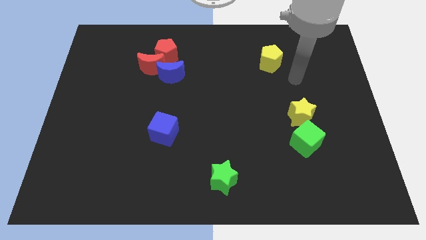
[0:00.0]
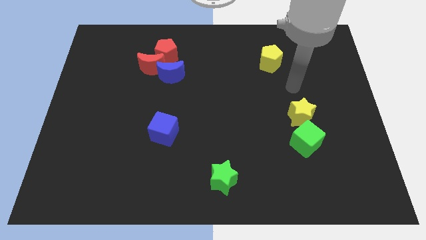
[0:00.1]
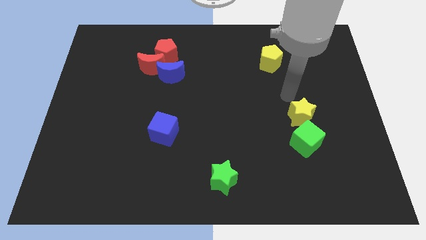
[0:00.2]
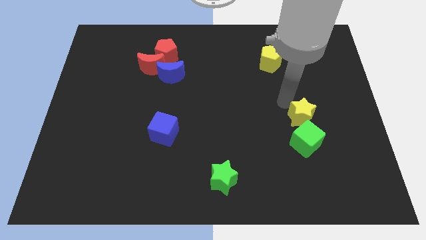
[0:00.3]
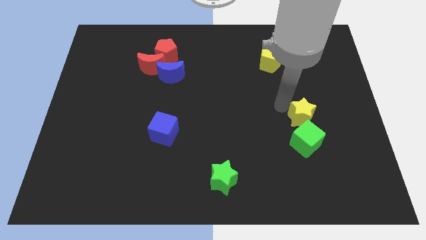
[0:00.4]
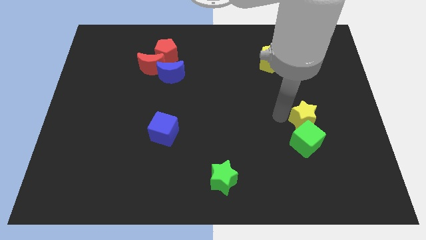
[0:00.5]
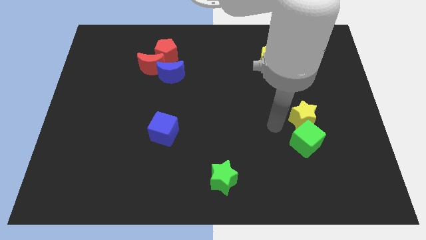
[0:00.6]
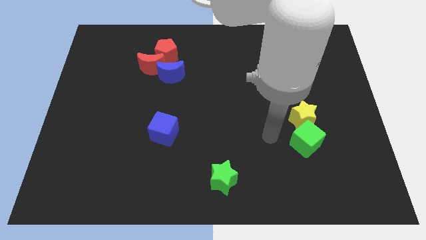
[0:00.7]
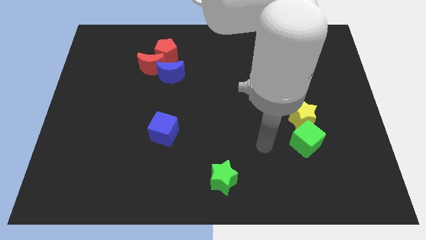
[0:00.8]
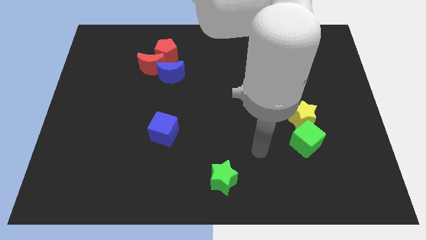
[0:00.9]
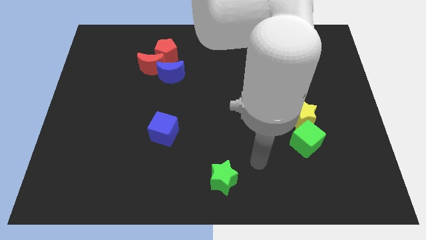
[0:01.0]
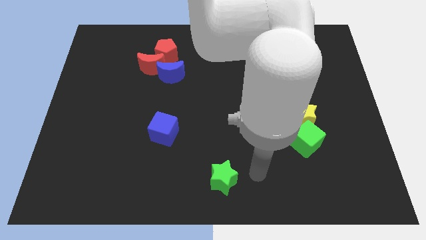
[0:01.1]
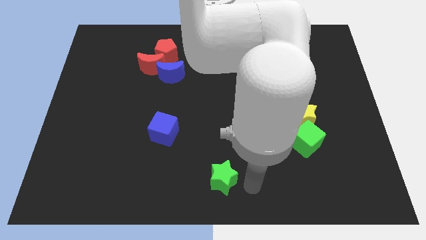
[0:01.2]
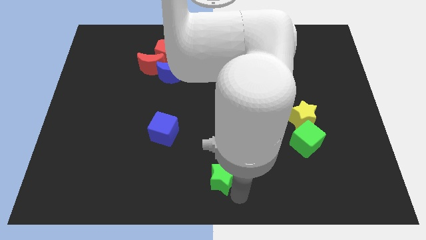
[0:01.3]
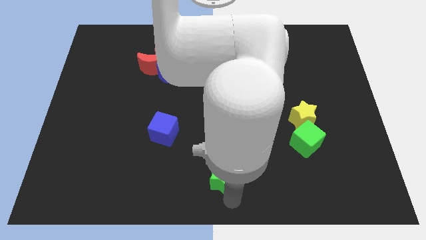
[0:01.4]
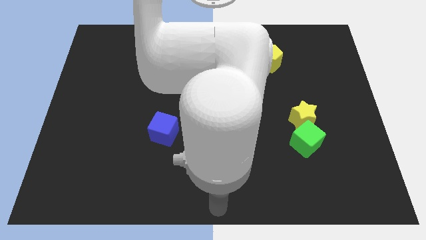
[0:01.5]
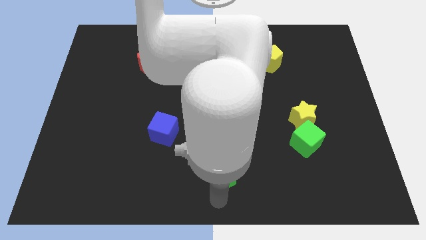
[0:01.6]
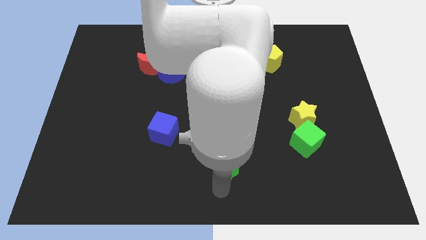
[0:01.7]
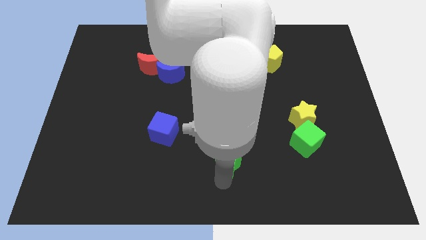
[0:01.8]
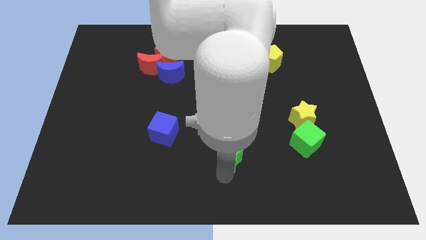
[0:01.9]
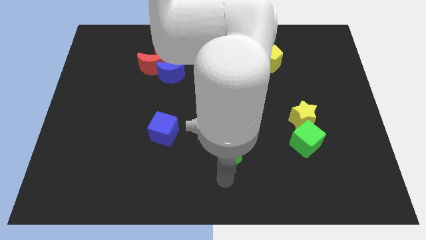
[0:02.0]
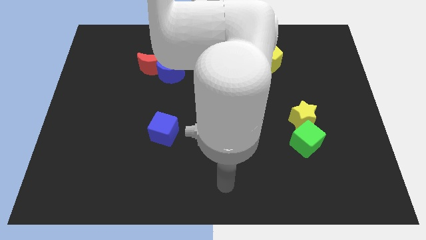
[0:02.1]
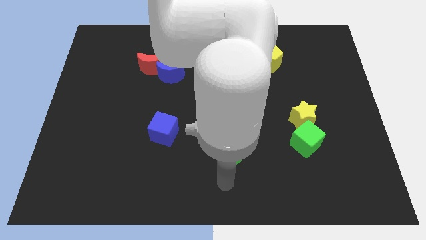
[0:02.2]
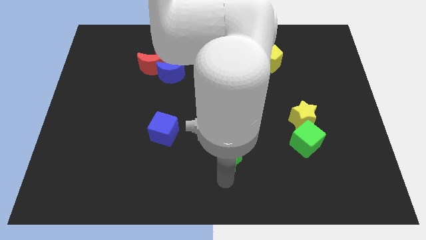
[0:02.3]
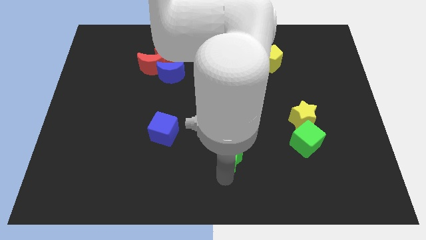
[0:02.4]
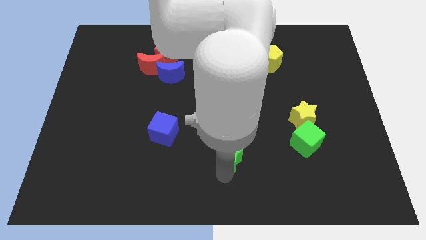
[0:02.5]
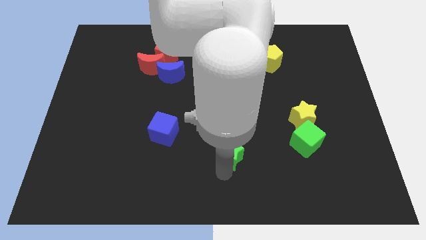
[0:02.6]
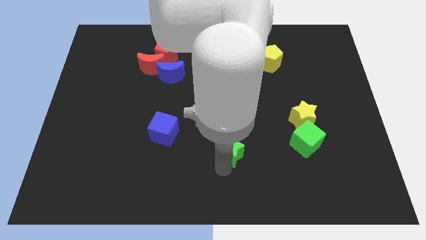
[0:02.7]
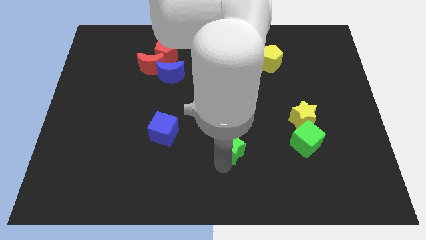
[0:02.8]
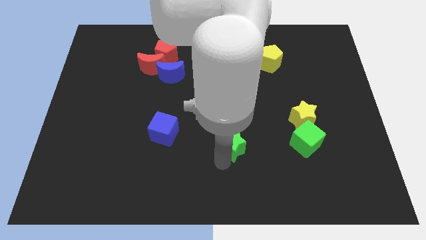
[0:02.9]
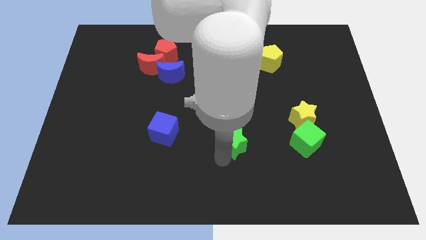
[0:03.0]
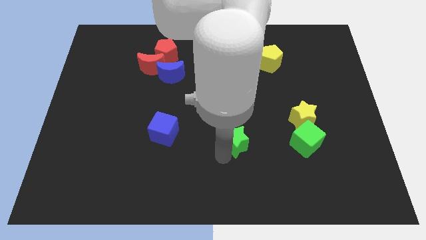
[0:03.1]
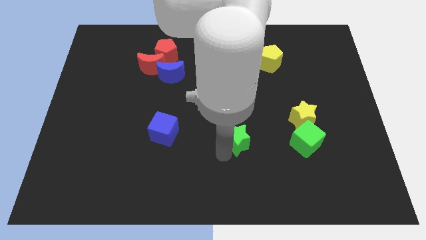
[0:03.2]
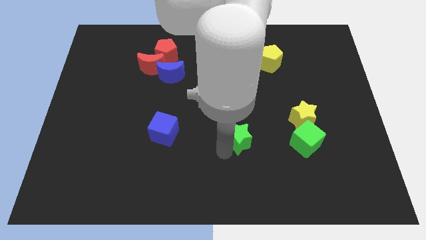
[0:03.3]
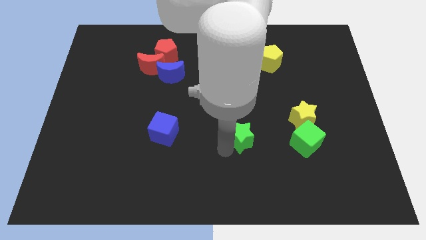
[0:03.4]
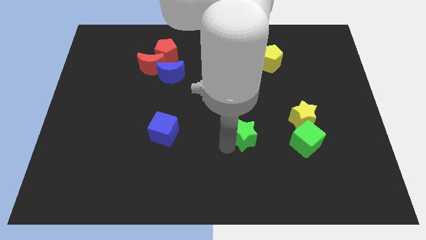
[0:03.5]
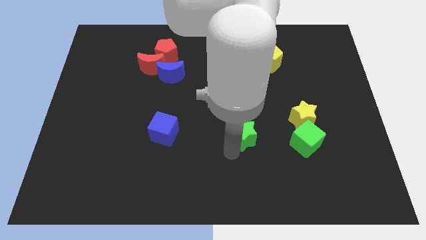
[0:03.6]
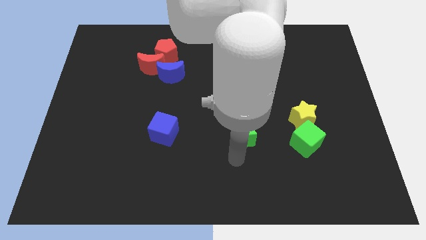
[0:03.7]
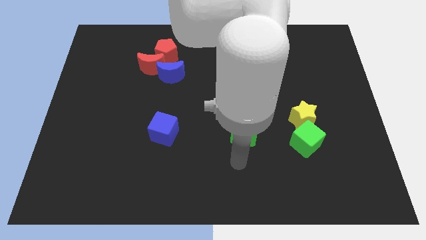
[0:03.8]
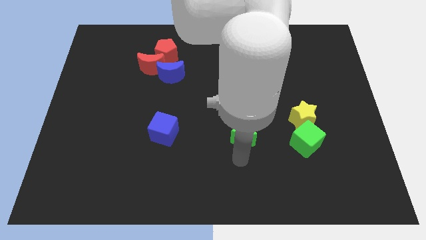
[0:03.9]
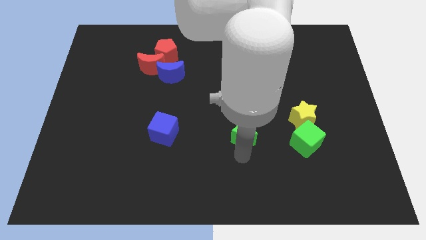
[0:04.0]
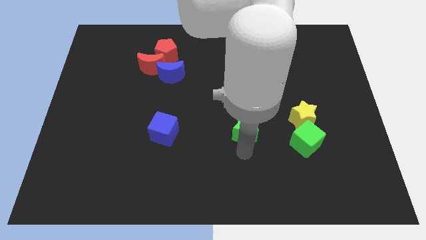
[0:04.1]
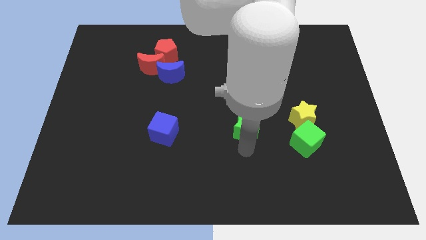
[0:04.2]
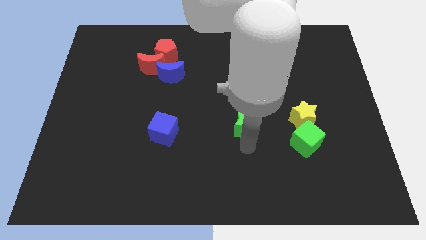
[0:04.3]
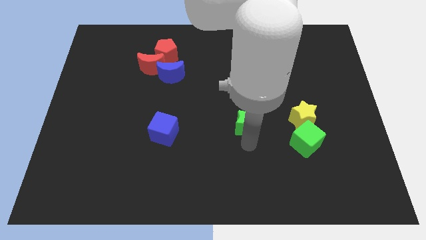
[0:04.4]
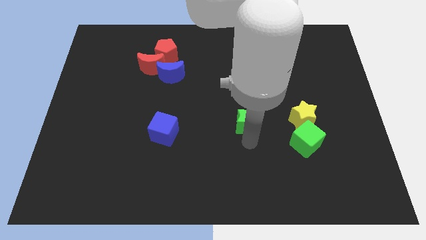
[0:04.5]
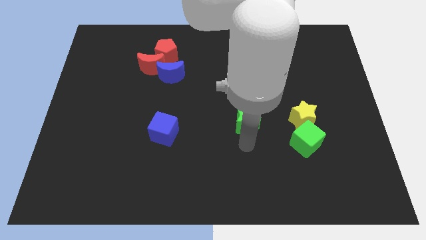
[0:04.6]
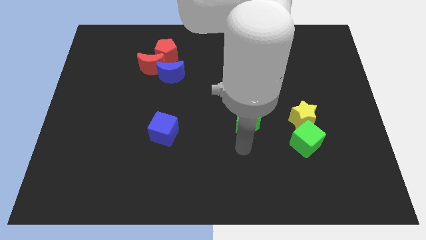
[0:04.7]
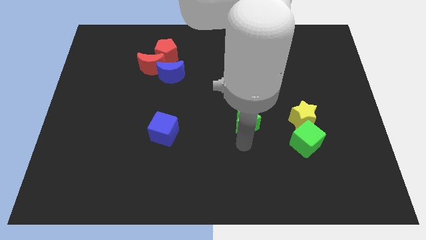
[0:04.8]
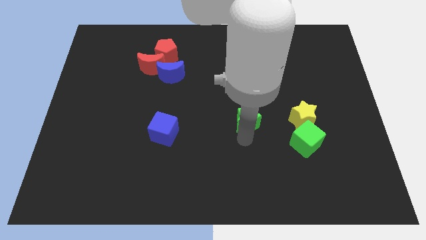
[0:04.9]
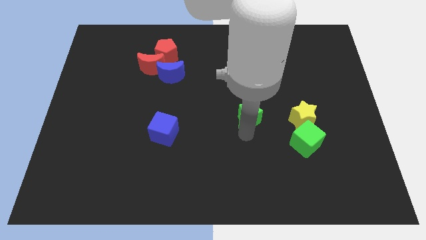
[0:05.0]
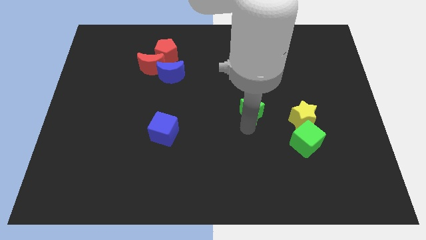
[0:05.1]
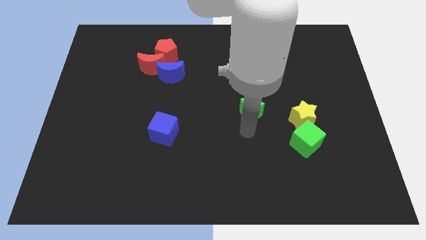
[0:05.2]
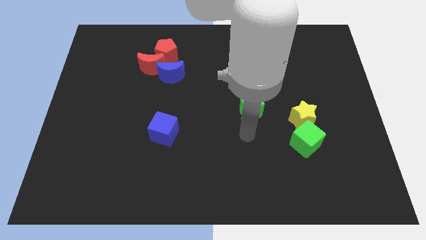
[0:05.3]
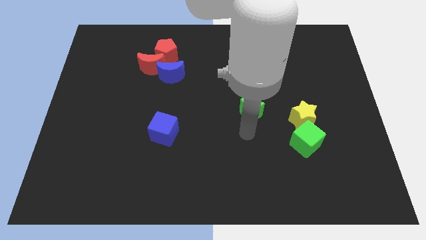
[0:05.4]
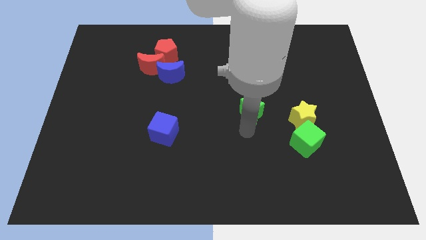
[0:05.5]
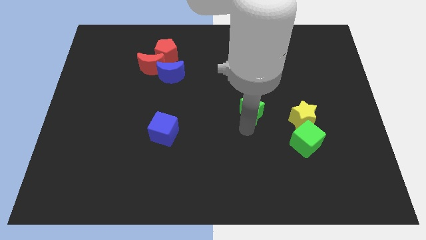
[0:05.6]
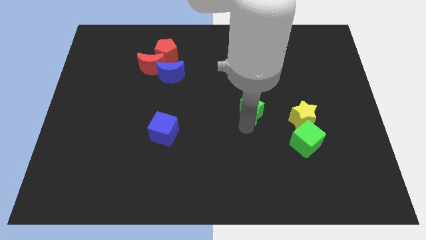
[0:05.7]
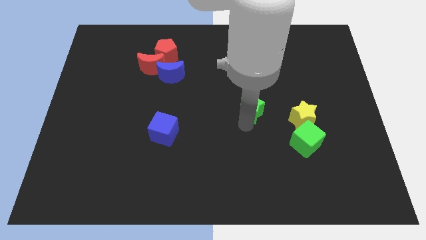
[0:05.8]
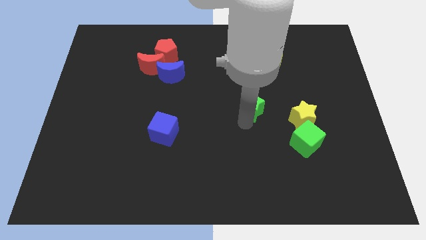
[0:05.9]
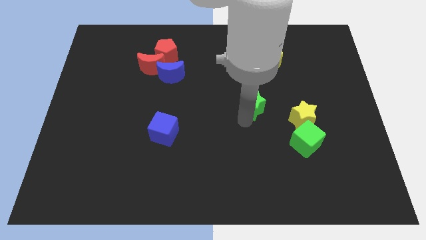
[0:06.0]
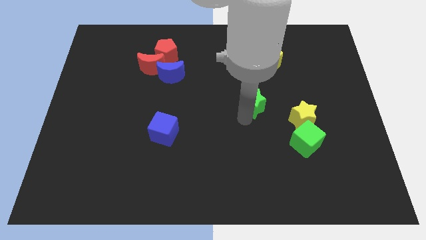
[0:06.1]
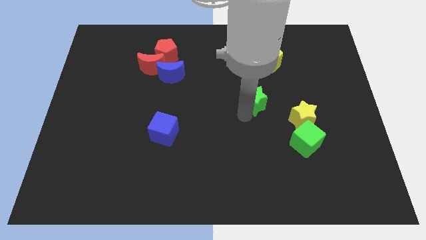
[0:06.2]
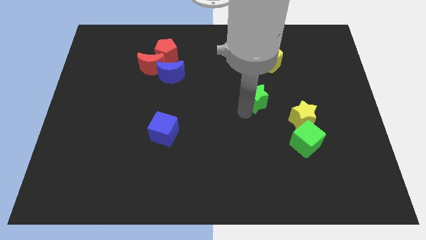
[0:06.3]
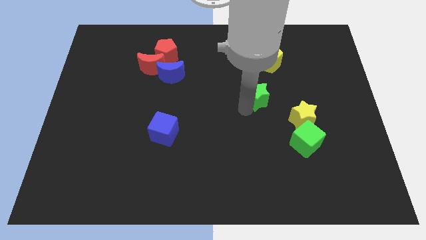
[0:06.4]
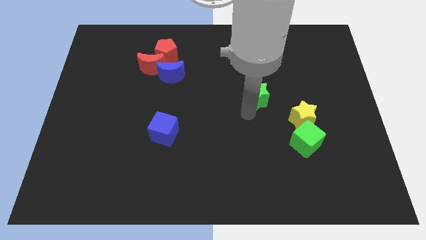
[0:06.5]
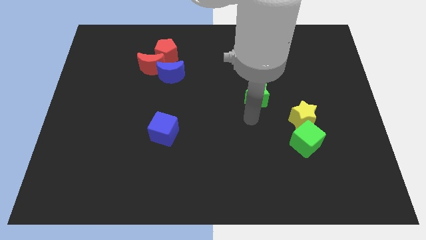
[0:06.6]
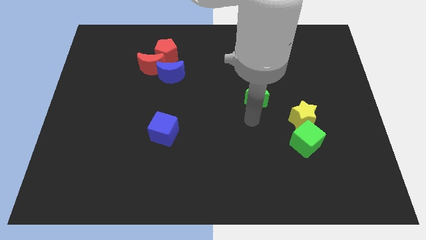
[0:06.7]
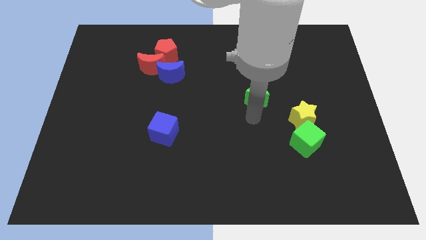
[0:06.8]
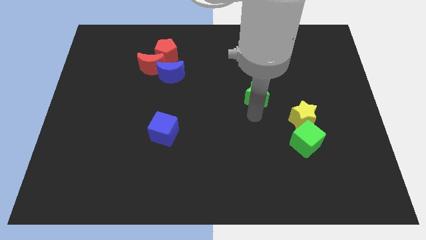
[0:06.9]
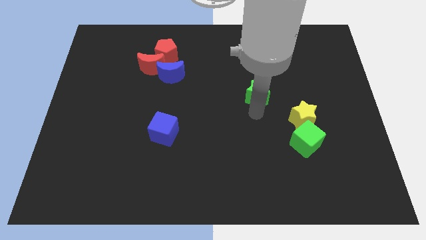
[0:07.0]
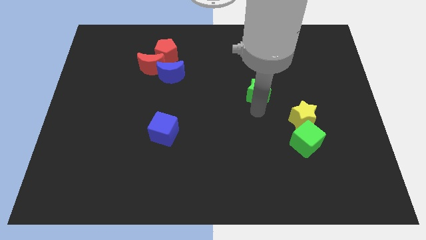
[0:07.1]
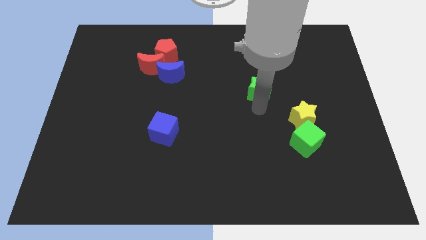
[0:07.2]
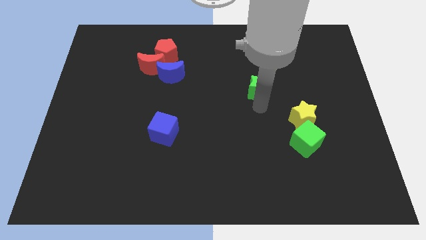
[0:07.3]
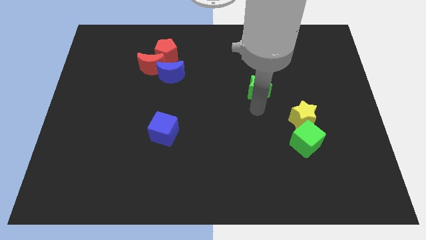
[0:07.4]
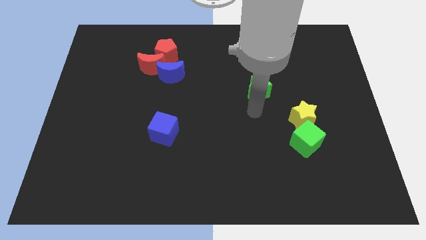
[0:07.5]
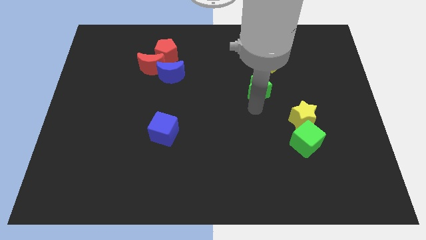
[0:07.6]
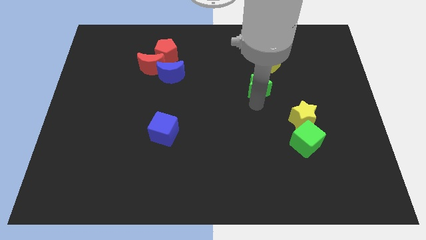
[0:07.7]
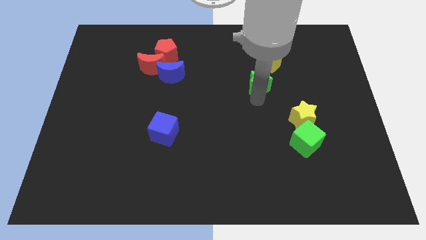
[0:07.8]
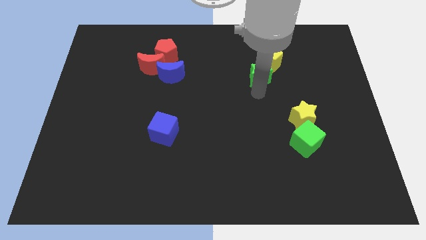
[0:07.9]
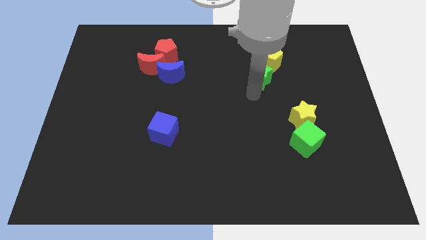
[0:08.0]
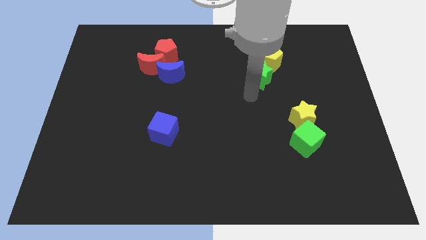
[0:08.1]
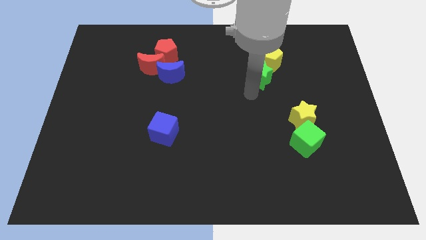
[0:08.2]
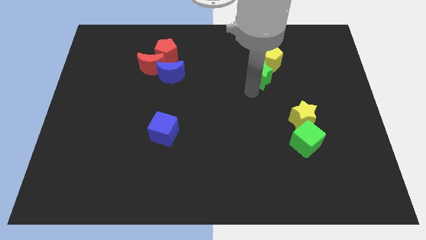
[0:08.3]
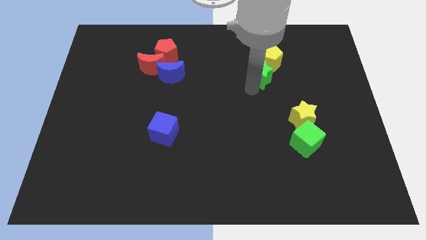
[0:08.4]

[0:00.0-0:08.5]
slide the green star towards the yellow pentagon
